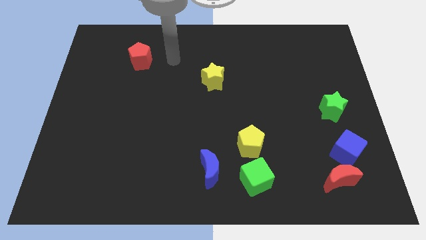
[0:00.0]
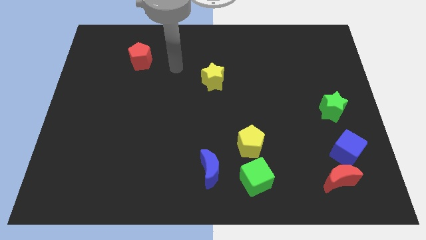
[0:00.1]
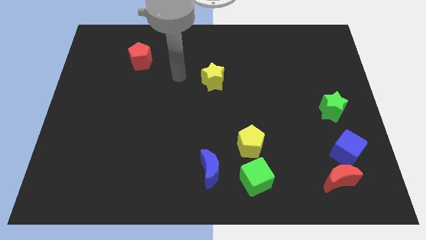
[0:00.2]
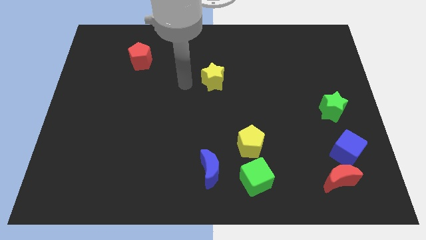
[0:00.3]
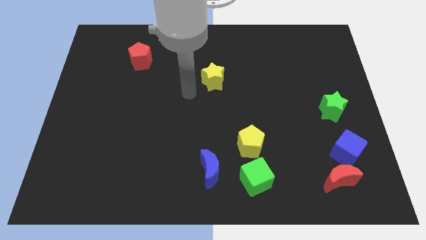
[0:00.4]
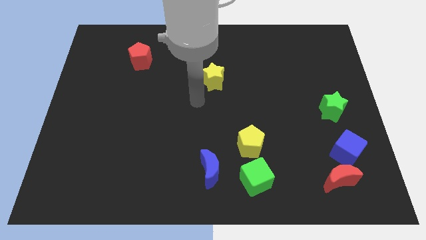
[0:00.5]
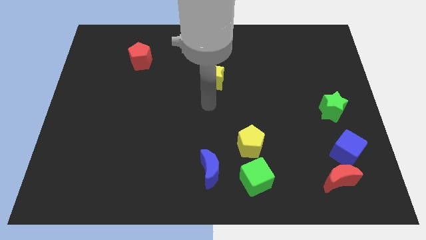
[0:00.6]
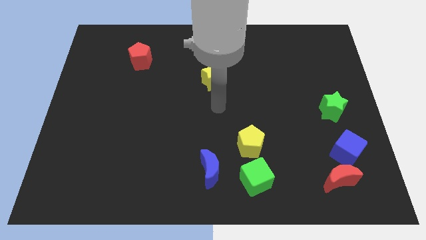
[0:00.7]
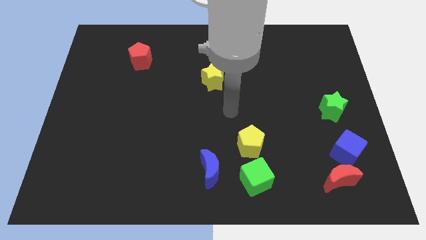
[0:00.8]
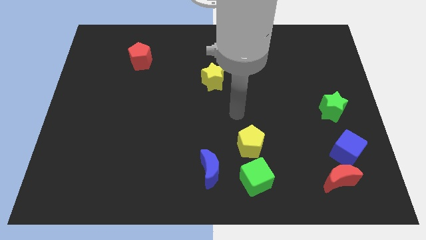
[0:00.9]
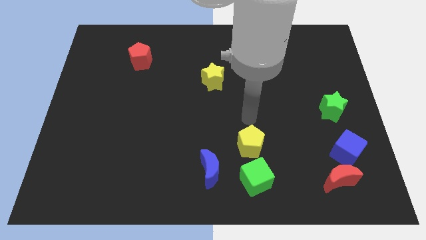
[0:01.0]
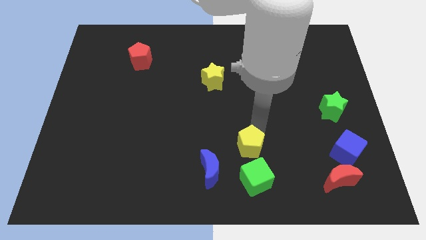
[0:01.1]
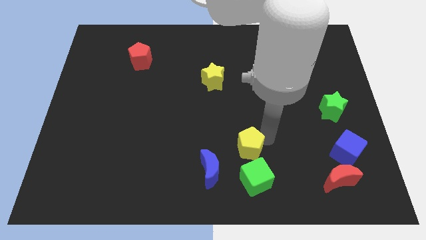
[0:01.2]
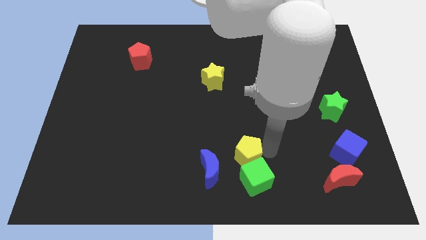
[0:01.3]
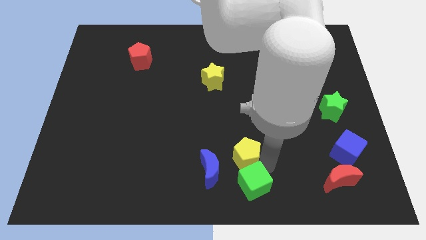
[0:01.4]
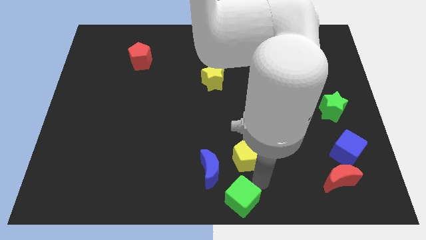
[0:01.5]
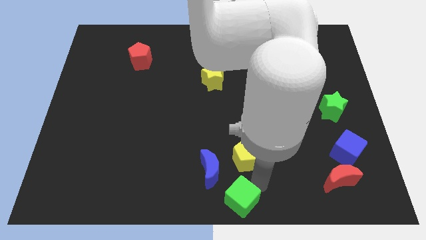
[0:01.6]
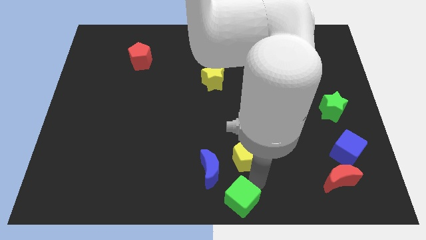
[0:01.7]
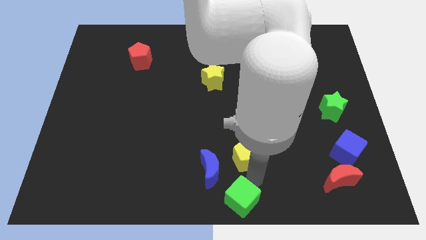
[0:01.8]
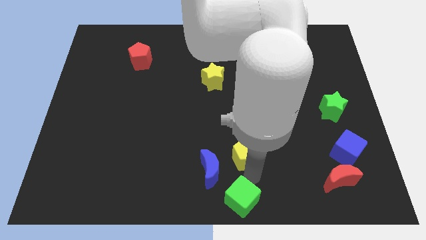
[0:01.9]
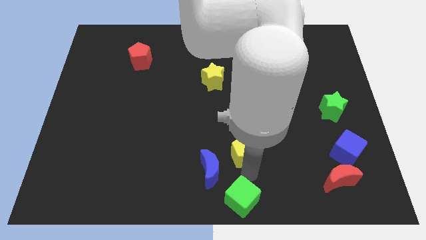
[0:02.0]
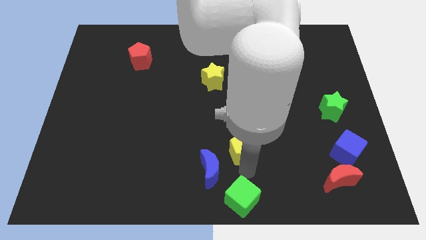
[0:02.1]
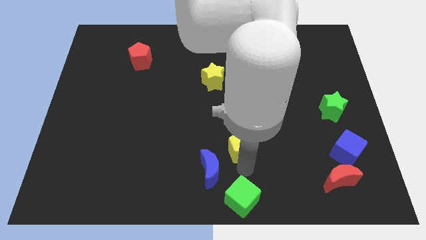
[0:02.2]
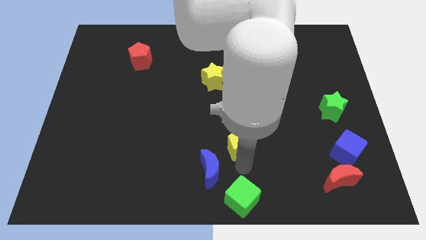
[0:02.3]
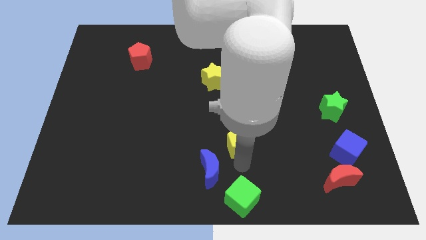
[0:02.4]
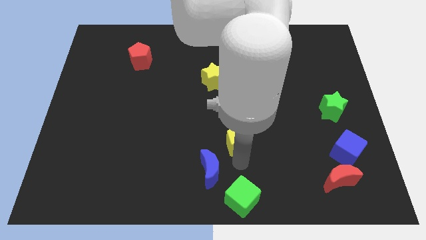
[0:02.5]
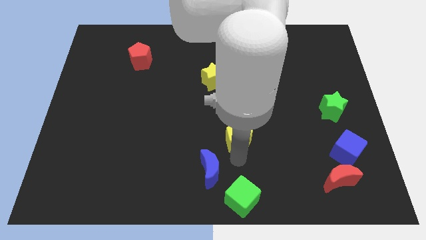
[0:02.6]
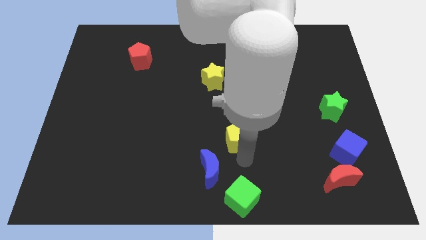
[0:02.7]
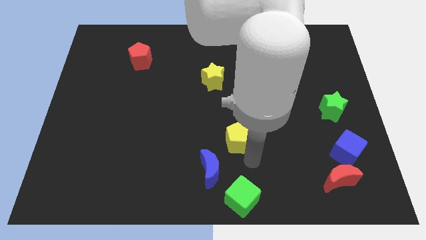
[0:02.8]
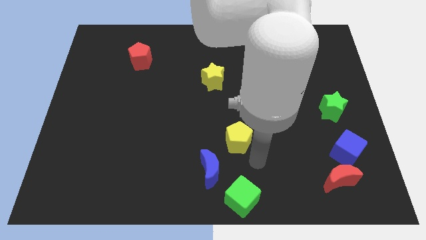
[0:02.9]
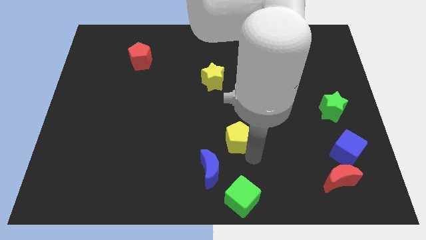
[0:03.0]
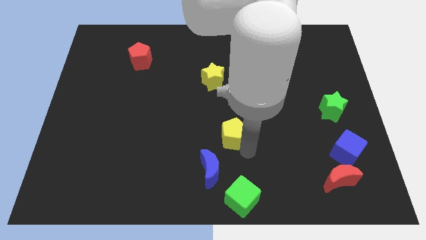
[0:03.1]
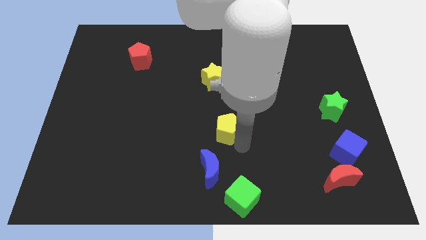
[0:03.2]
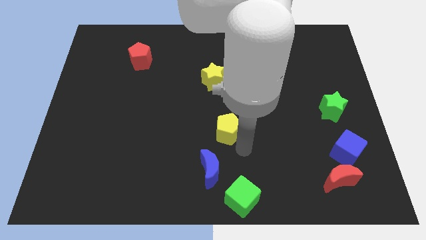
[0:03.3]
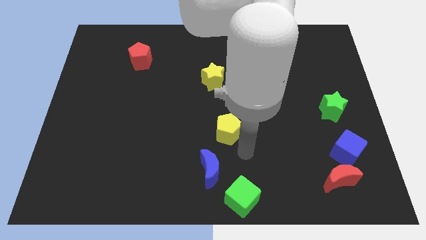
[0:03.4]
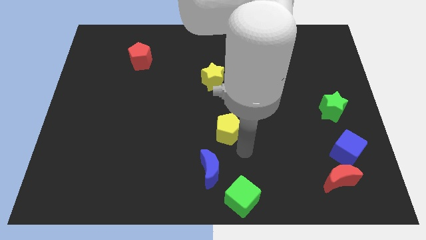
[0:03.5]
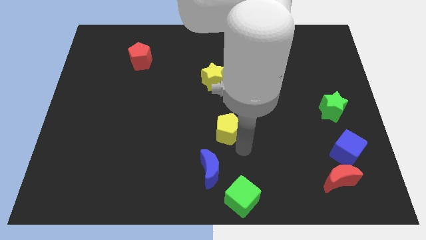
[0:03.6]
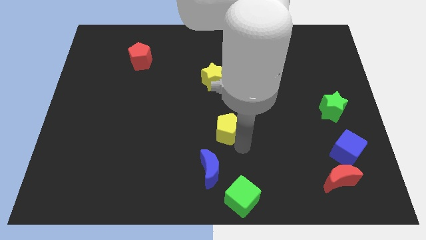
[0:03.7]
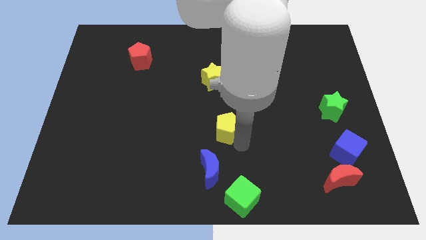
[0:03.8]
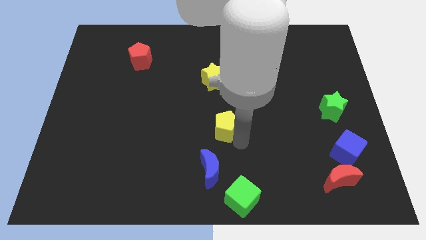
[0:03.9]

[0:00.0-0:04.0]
slightly move the yellow pentagon diagonally upwards and to the left

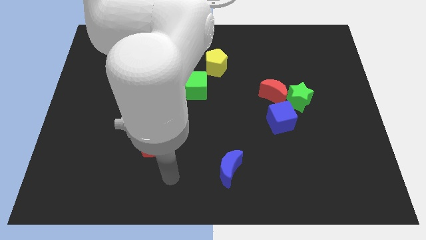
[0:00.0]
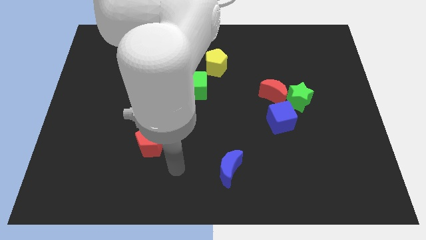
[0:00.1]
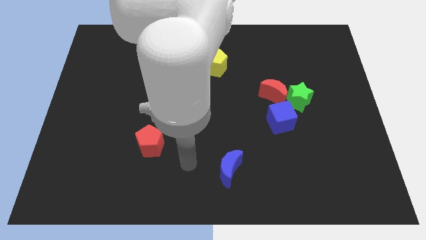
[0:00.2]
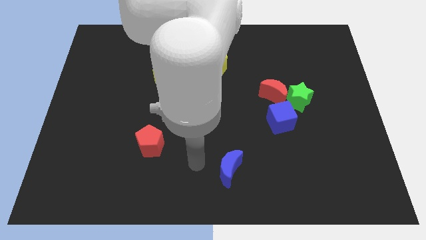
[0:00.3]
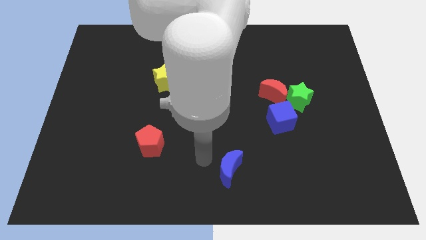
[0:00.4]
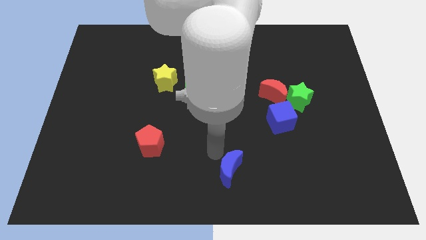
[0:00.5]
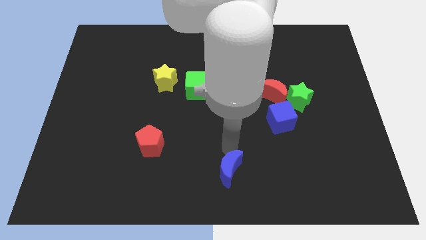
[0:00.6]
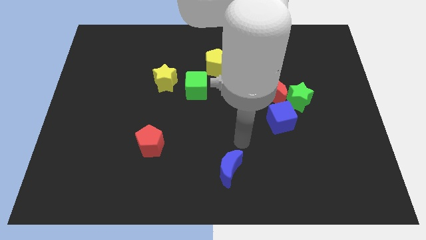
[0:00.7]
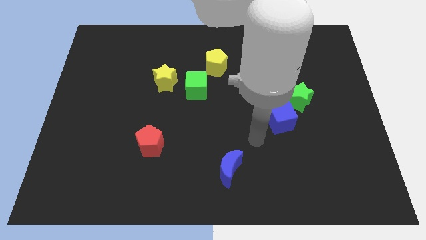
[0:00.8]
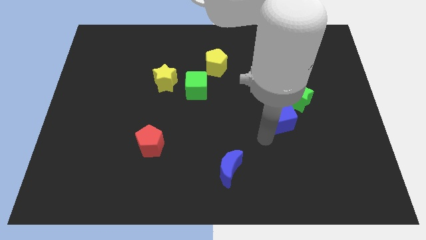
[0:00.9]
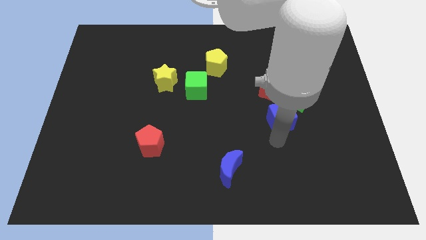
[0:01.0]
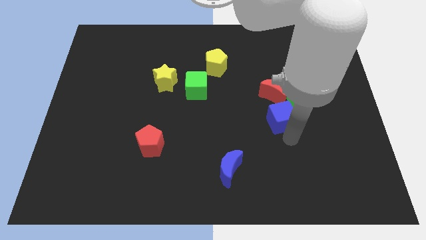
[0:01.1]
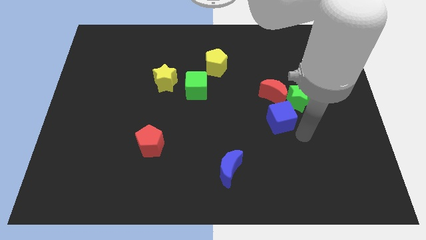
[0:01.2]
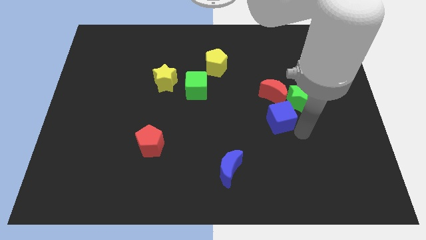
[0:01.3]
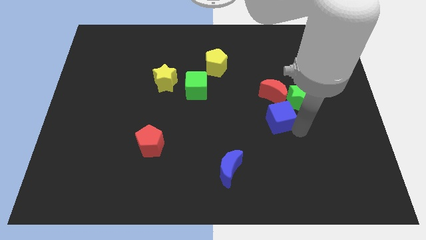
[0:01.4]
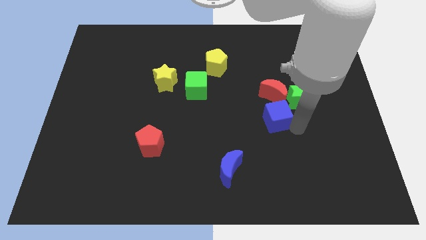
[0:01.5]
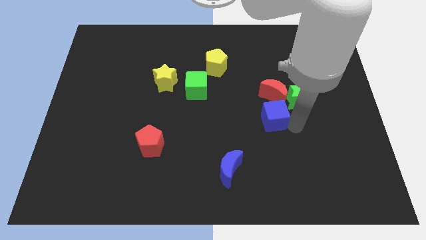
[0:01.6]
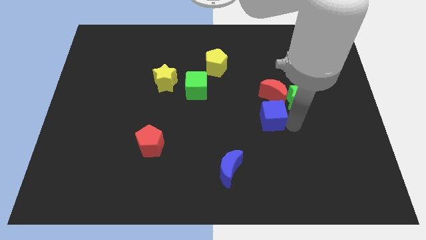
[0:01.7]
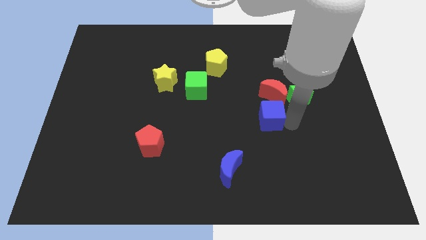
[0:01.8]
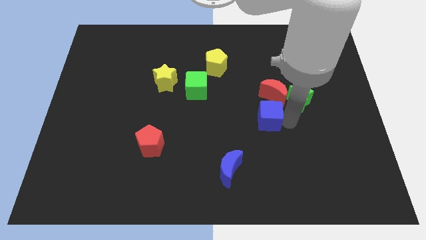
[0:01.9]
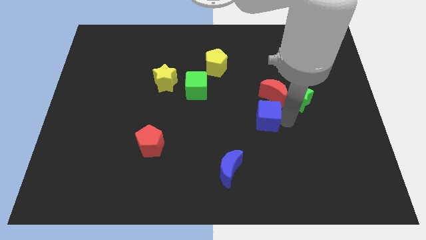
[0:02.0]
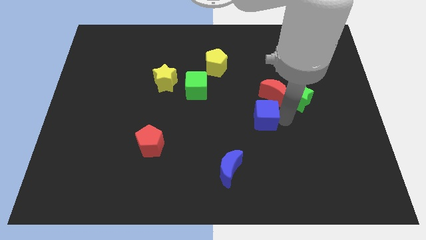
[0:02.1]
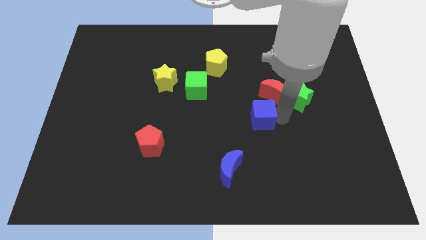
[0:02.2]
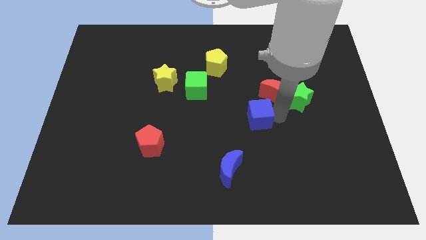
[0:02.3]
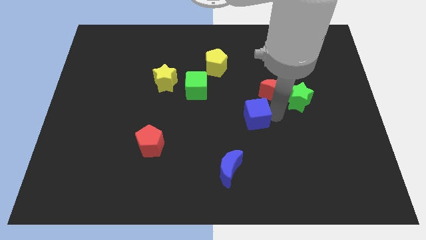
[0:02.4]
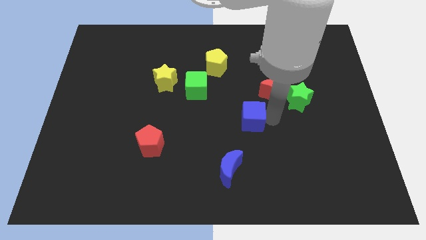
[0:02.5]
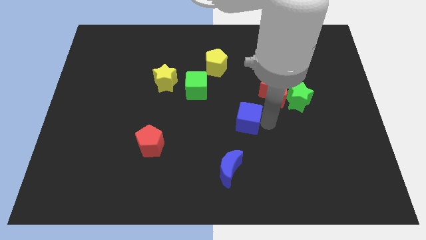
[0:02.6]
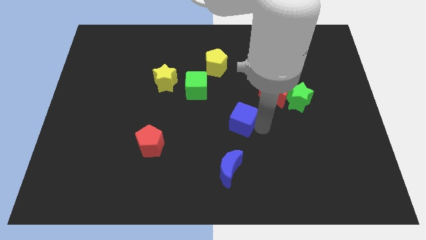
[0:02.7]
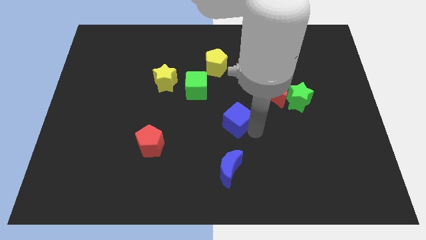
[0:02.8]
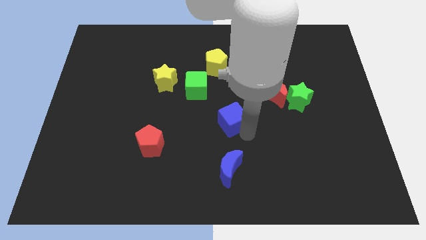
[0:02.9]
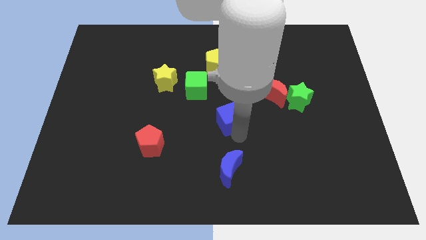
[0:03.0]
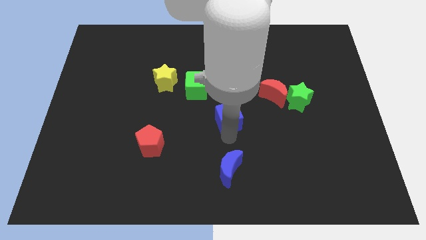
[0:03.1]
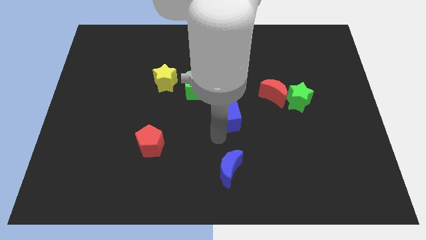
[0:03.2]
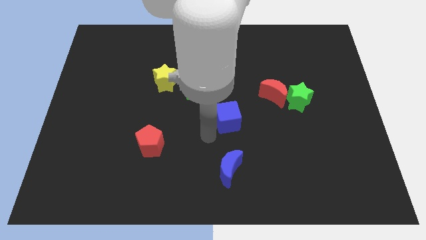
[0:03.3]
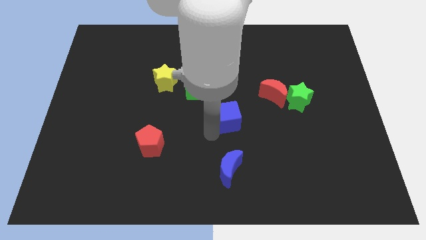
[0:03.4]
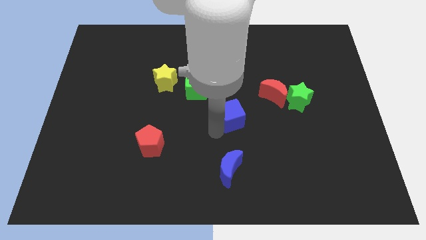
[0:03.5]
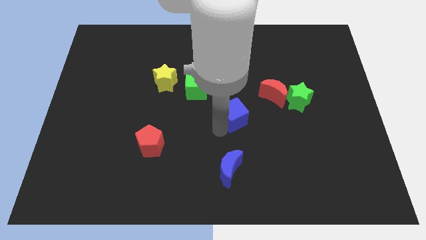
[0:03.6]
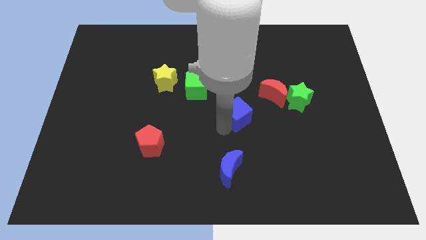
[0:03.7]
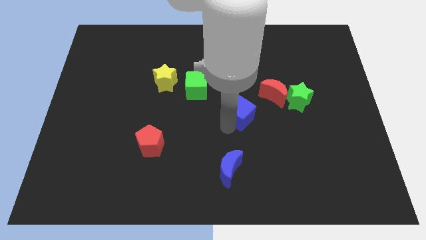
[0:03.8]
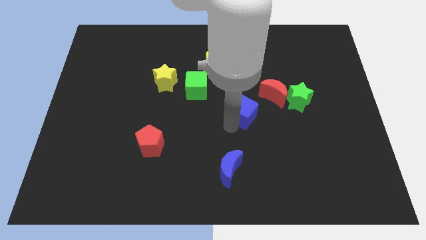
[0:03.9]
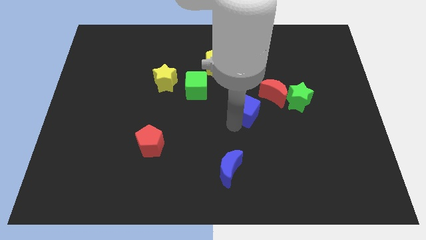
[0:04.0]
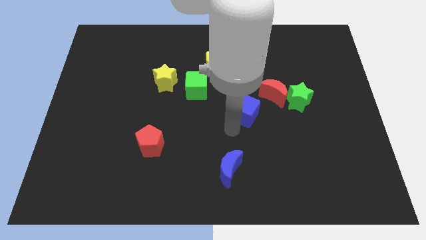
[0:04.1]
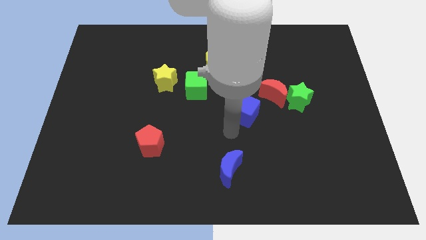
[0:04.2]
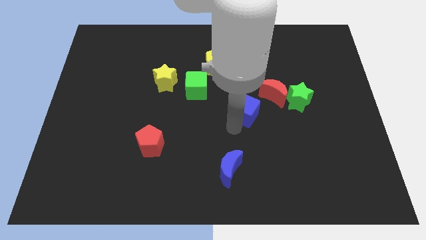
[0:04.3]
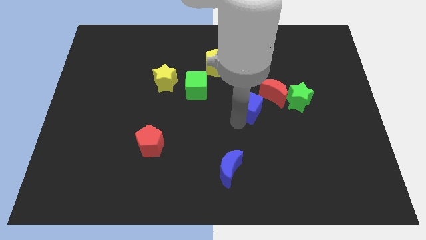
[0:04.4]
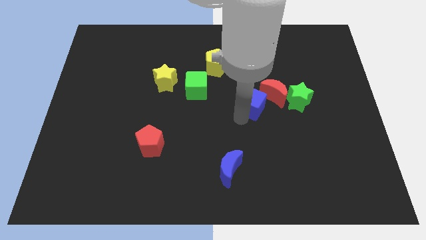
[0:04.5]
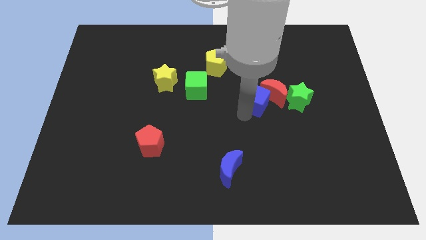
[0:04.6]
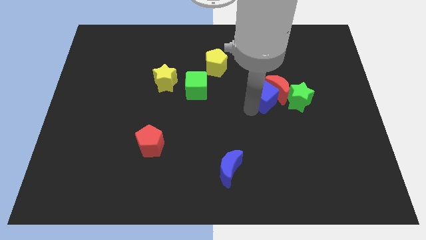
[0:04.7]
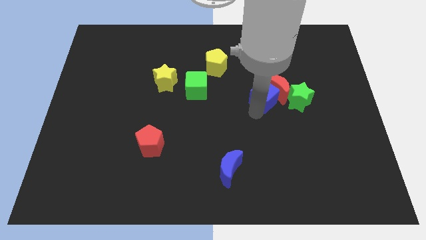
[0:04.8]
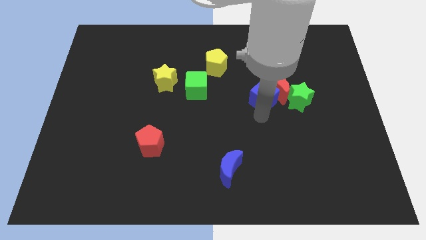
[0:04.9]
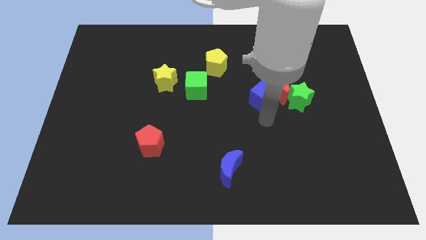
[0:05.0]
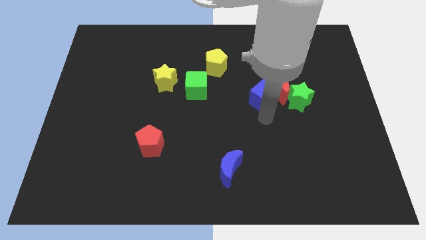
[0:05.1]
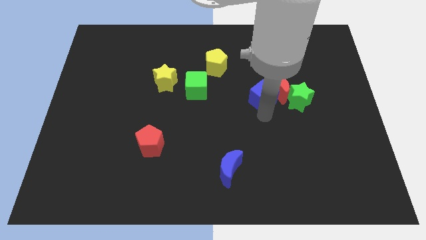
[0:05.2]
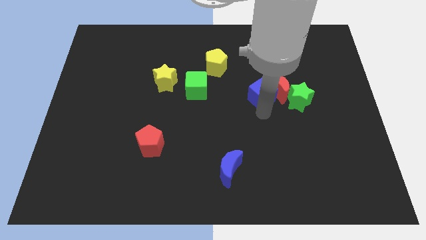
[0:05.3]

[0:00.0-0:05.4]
slightly slide the blue cube upwards
